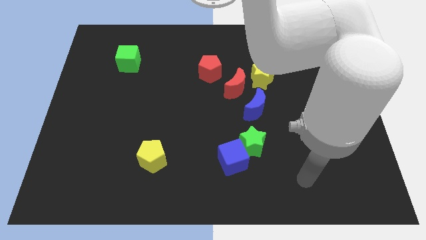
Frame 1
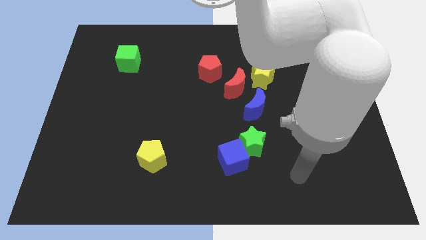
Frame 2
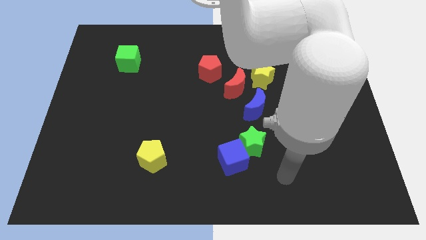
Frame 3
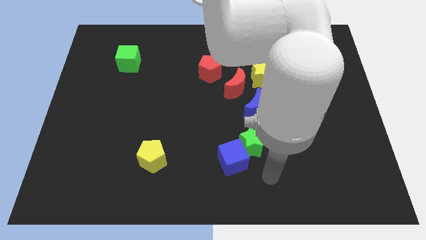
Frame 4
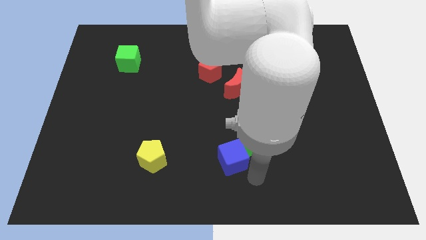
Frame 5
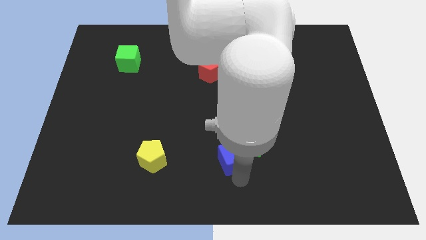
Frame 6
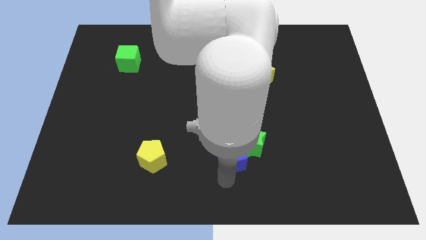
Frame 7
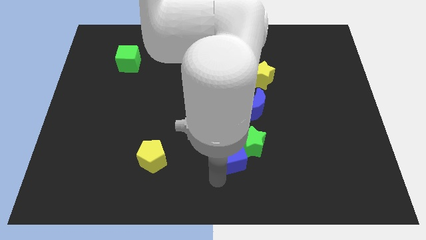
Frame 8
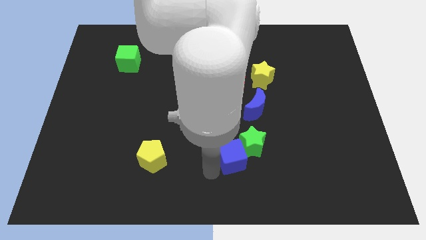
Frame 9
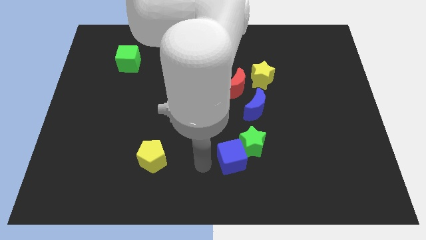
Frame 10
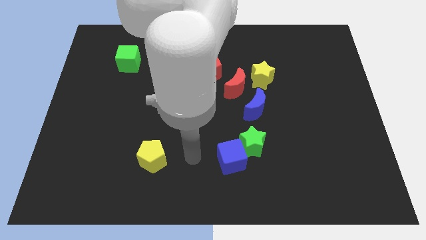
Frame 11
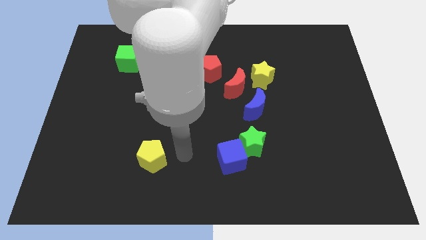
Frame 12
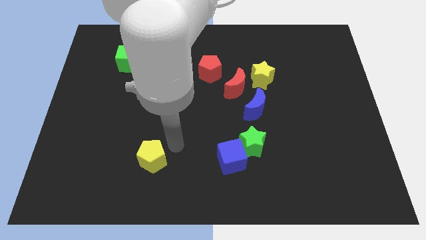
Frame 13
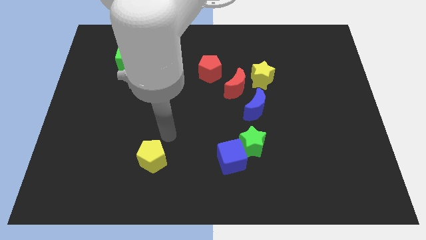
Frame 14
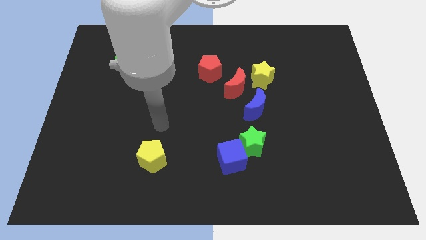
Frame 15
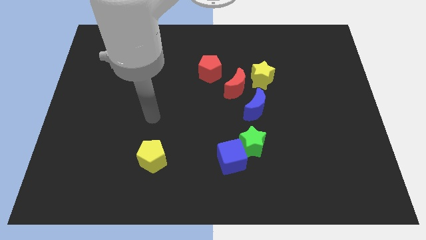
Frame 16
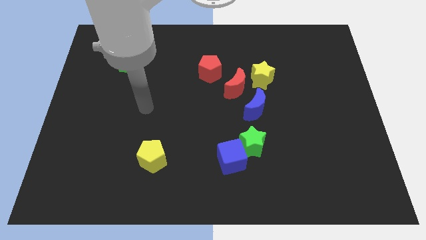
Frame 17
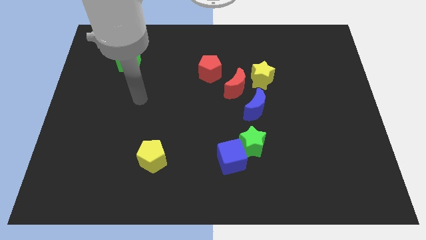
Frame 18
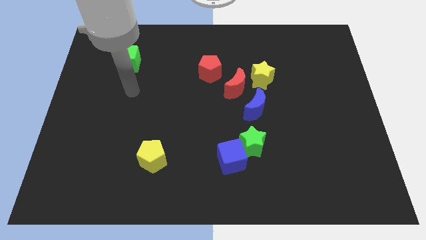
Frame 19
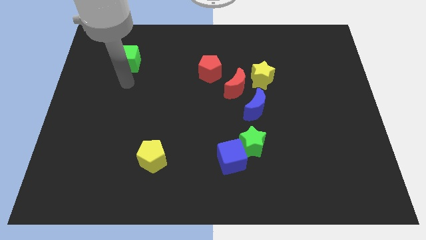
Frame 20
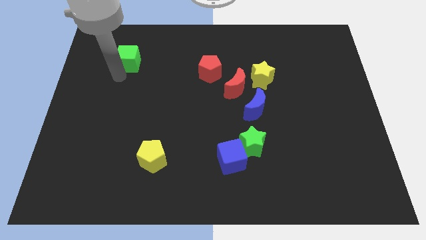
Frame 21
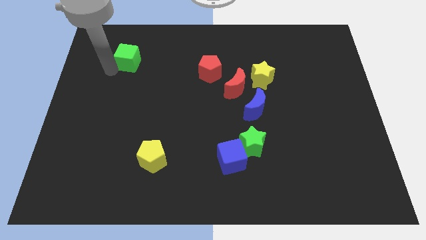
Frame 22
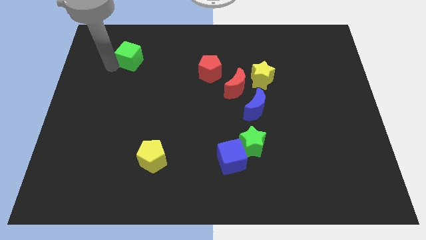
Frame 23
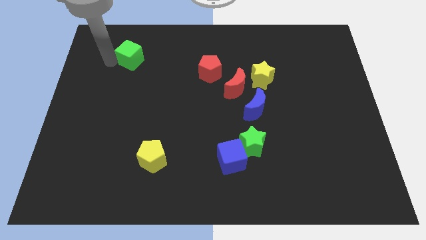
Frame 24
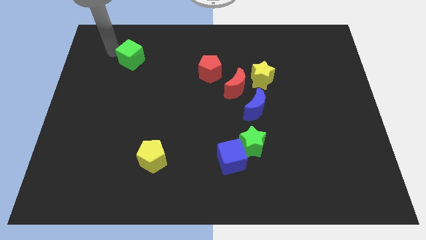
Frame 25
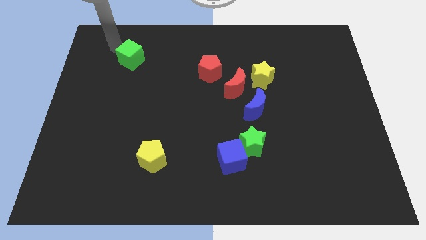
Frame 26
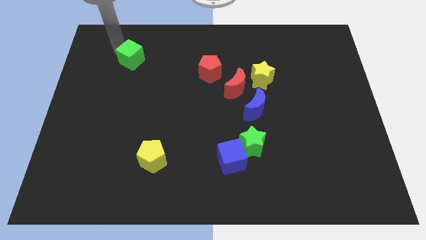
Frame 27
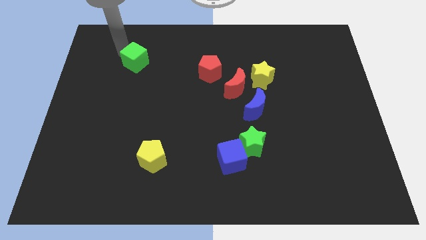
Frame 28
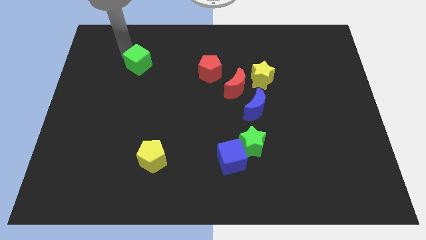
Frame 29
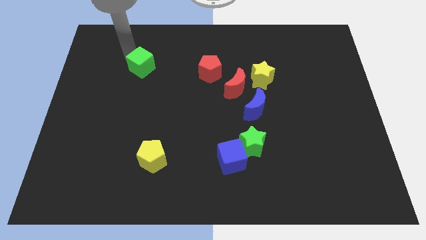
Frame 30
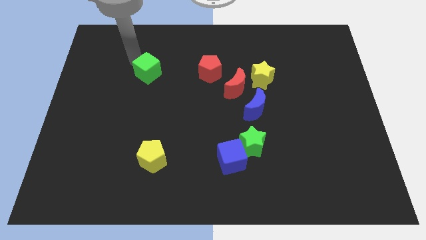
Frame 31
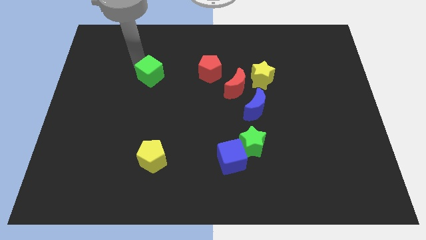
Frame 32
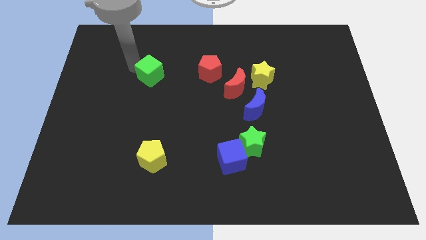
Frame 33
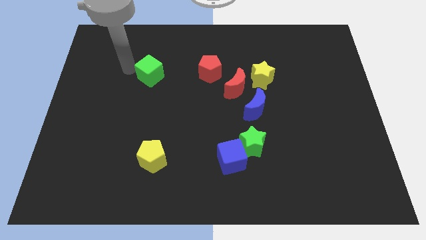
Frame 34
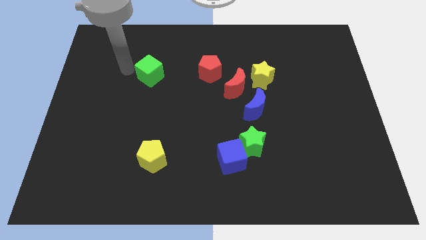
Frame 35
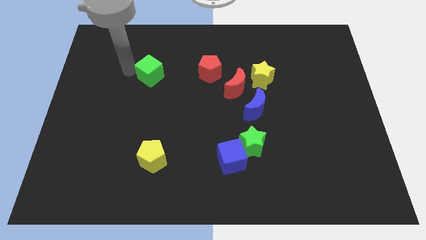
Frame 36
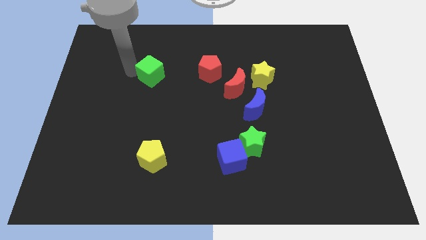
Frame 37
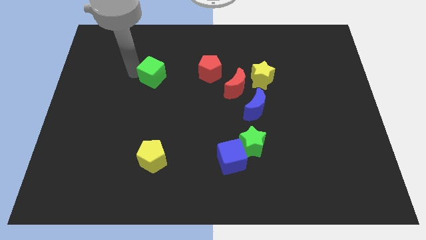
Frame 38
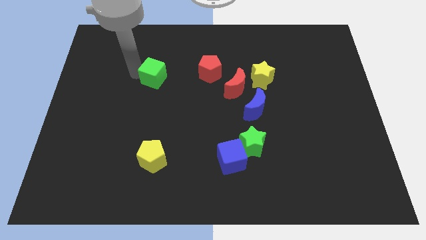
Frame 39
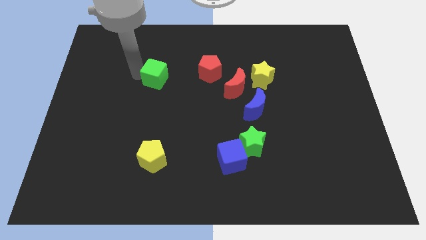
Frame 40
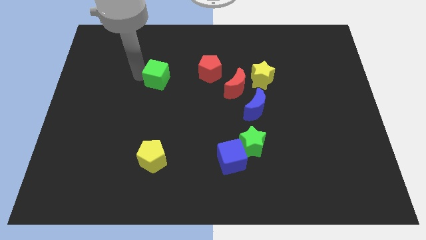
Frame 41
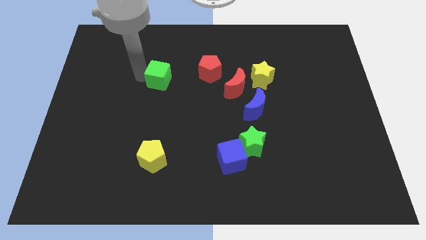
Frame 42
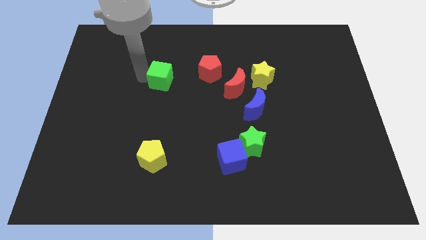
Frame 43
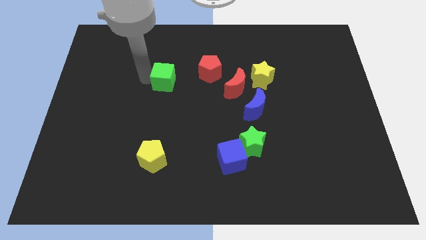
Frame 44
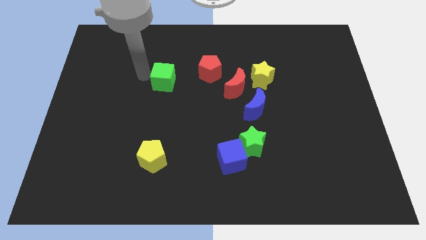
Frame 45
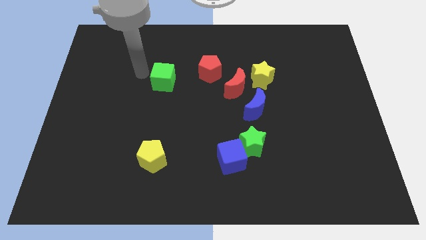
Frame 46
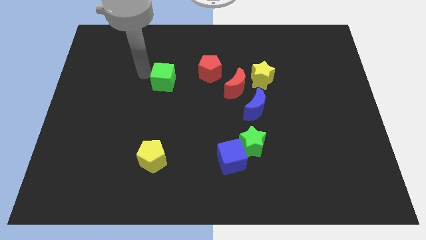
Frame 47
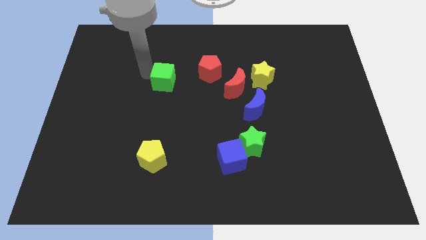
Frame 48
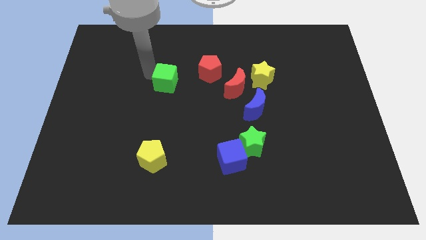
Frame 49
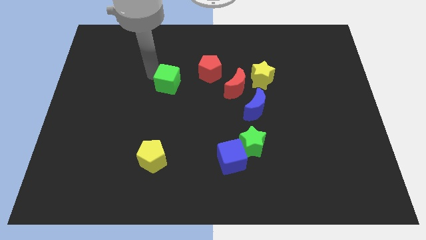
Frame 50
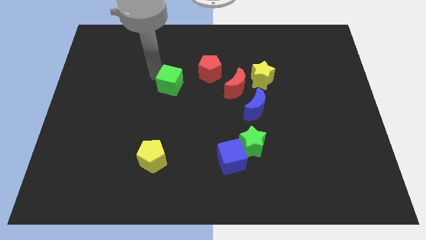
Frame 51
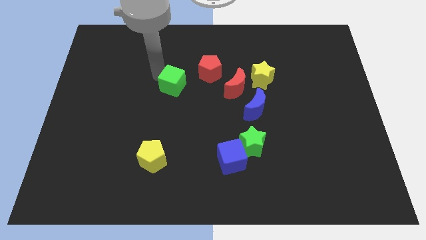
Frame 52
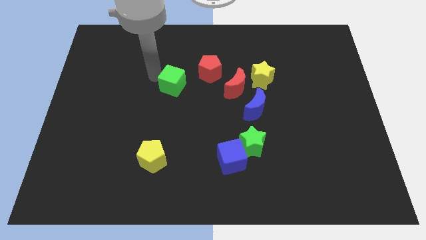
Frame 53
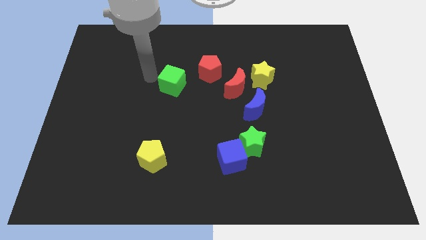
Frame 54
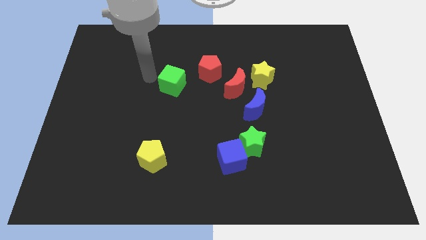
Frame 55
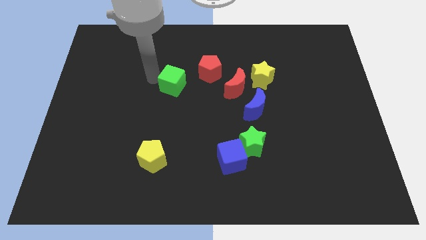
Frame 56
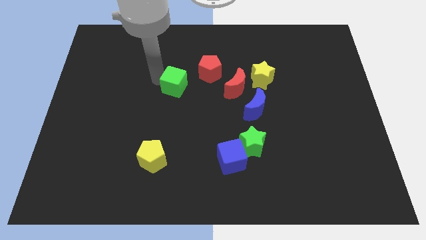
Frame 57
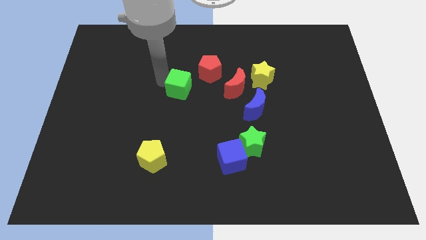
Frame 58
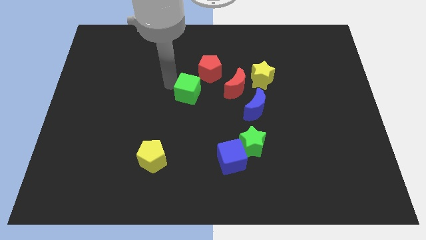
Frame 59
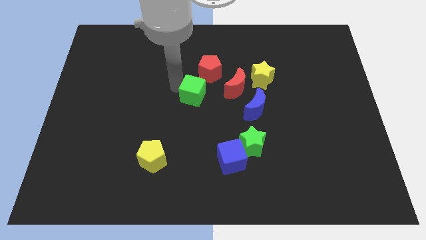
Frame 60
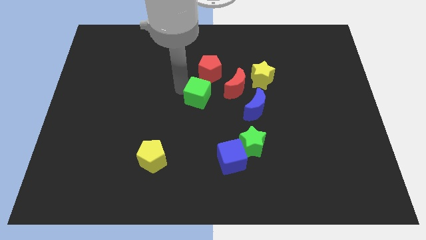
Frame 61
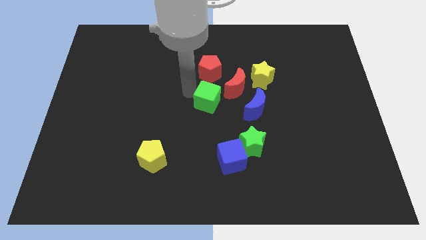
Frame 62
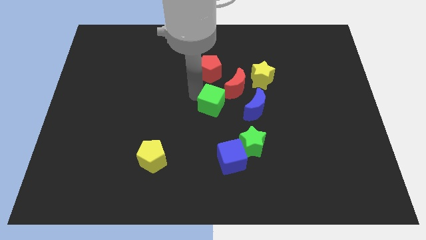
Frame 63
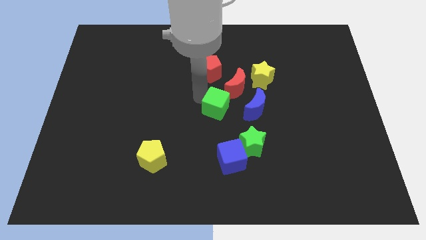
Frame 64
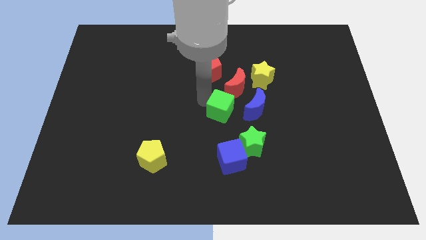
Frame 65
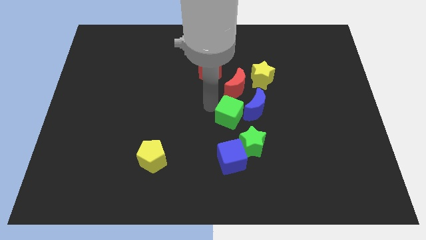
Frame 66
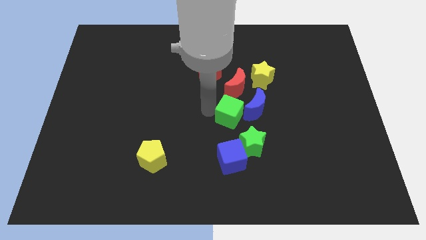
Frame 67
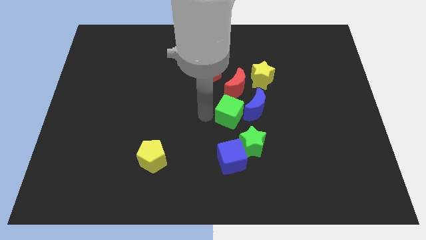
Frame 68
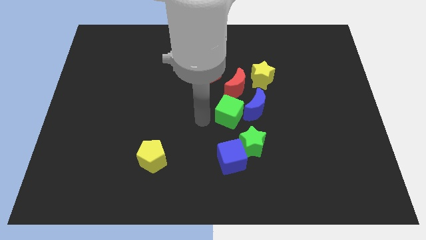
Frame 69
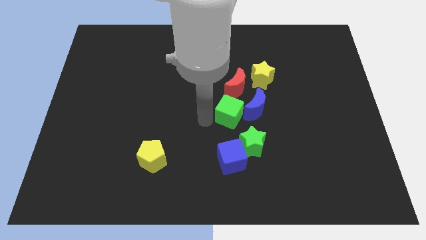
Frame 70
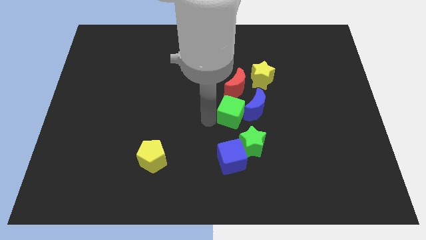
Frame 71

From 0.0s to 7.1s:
put the green cube to the blue moon
